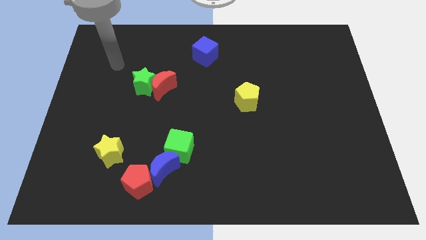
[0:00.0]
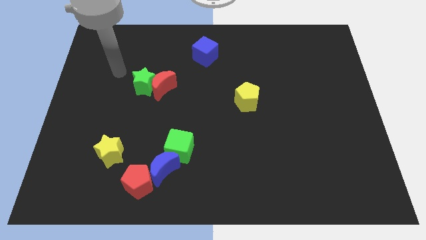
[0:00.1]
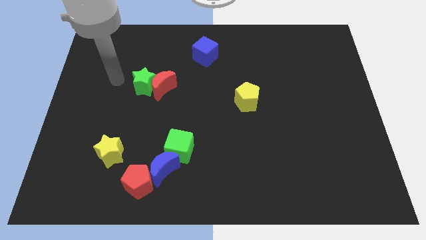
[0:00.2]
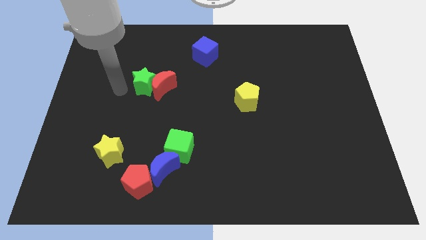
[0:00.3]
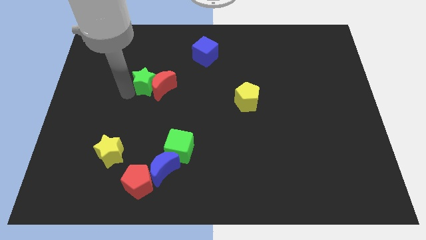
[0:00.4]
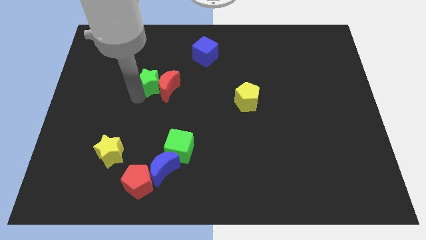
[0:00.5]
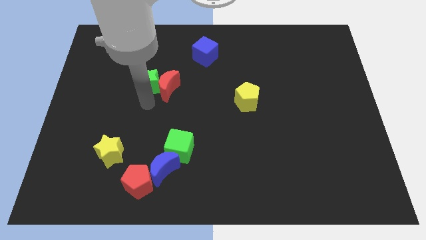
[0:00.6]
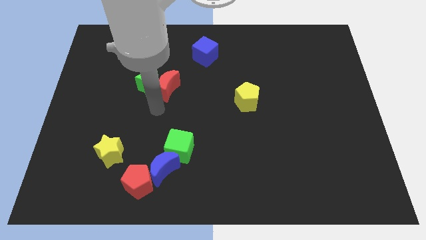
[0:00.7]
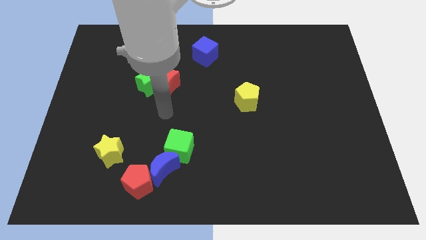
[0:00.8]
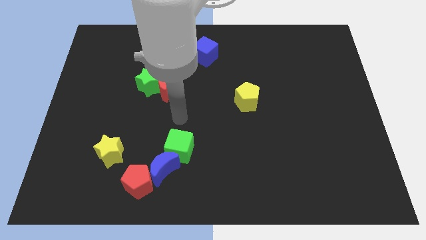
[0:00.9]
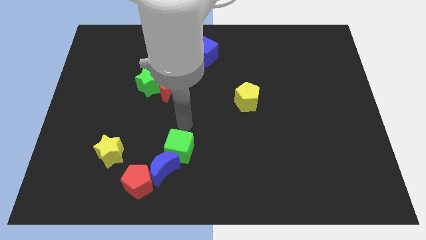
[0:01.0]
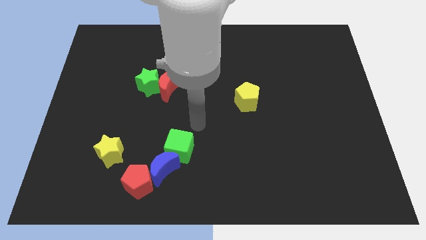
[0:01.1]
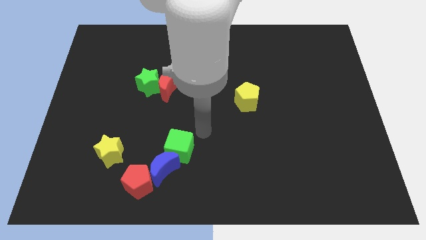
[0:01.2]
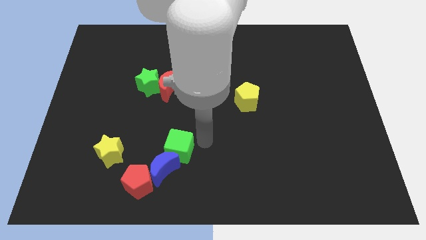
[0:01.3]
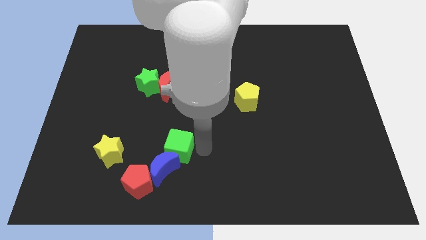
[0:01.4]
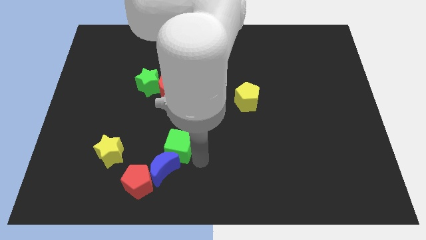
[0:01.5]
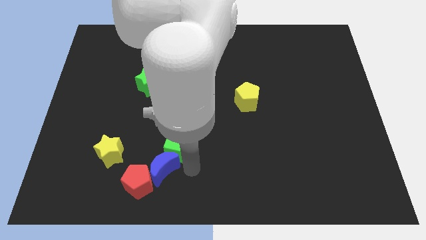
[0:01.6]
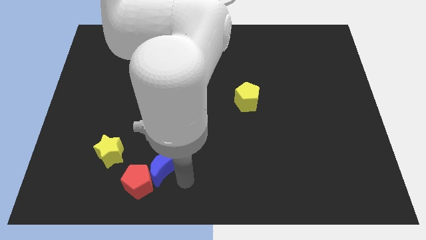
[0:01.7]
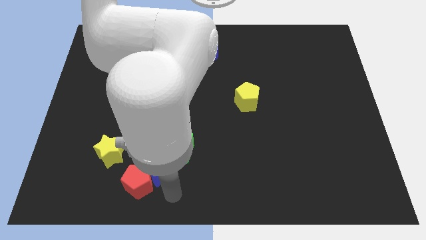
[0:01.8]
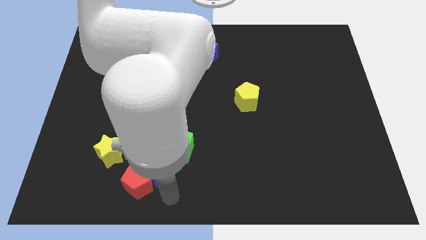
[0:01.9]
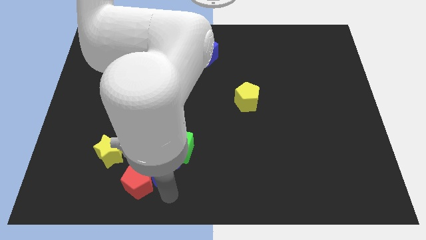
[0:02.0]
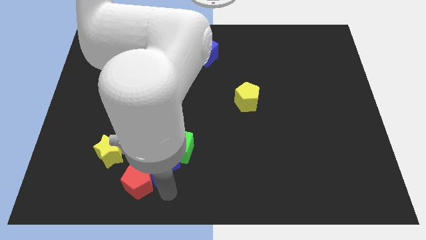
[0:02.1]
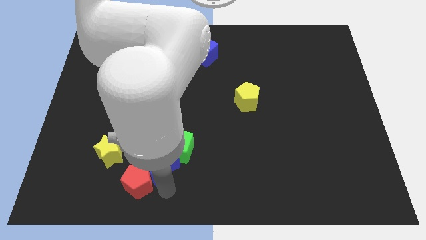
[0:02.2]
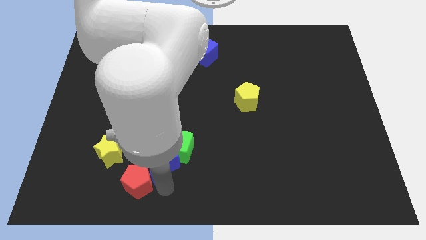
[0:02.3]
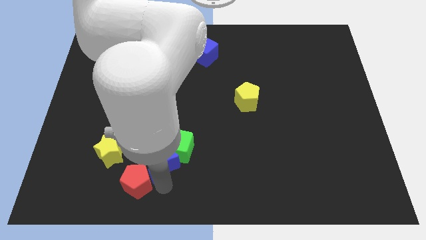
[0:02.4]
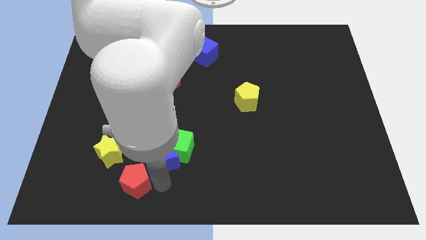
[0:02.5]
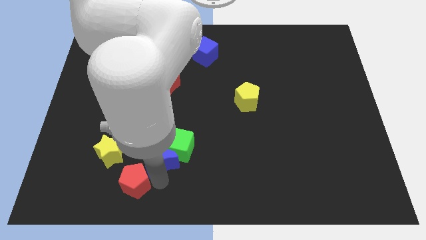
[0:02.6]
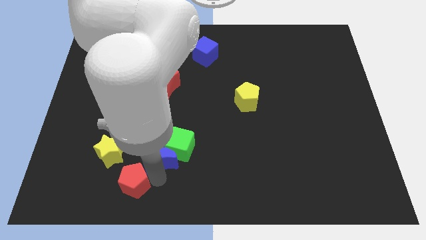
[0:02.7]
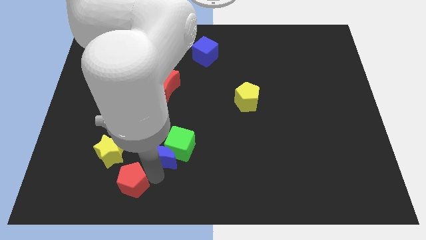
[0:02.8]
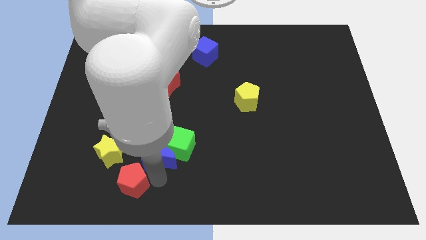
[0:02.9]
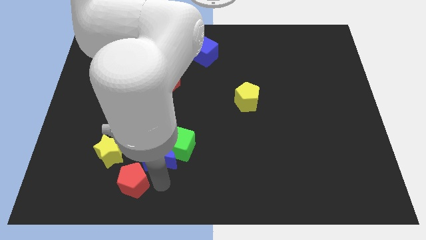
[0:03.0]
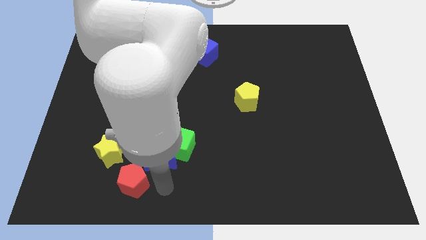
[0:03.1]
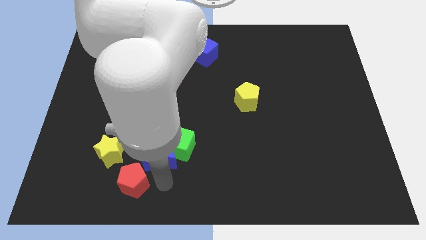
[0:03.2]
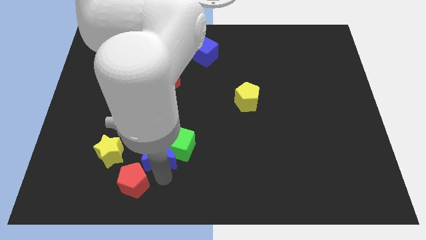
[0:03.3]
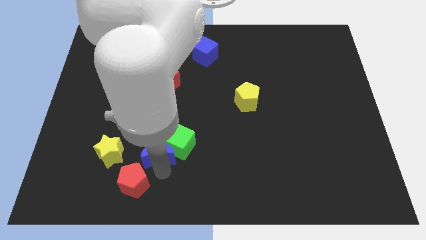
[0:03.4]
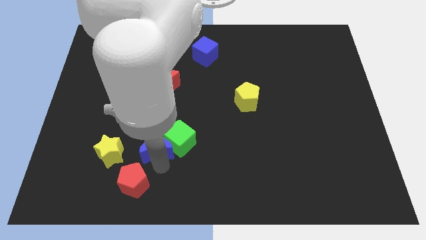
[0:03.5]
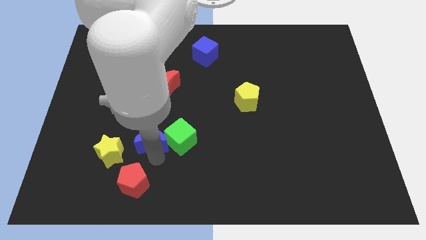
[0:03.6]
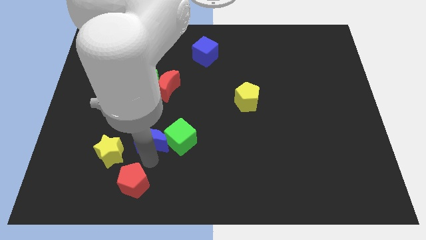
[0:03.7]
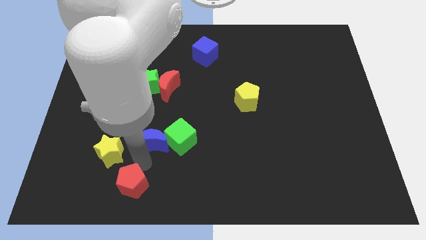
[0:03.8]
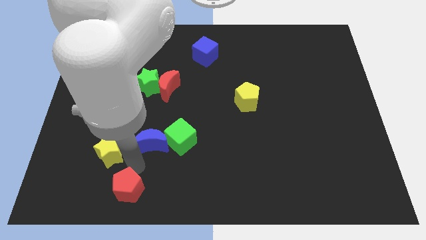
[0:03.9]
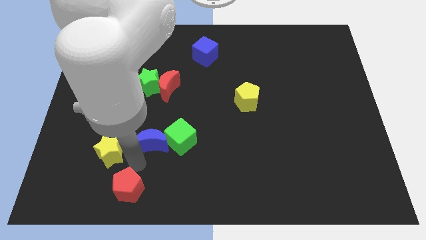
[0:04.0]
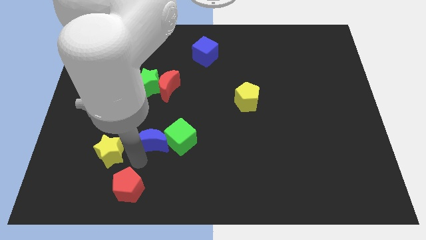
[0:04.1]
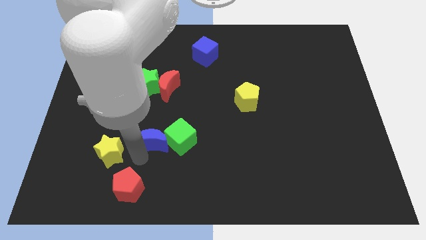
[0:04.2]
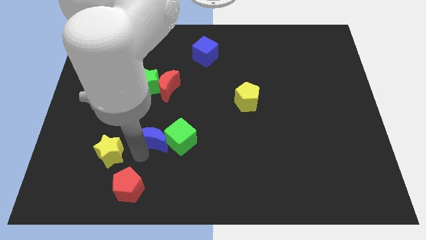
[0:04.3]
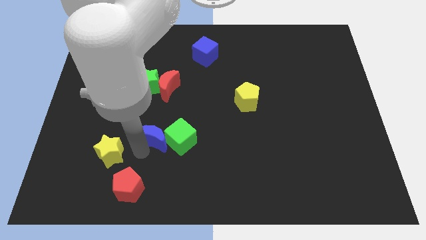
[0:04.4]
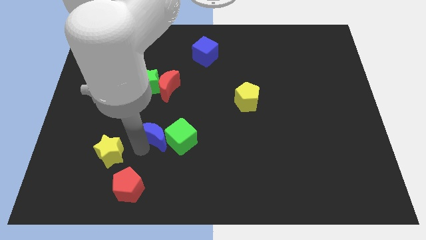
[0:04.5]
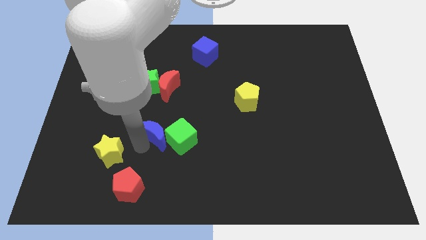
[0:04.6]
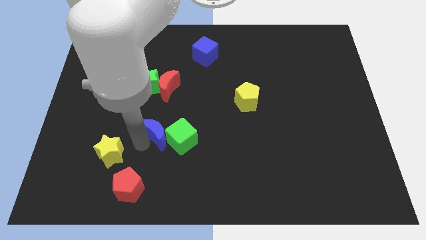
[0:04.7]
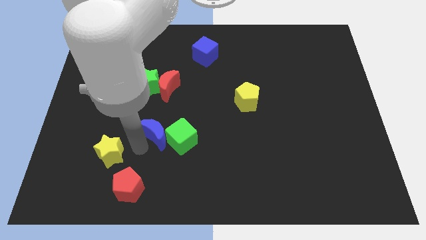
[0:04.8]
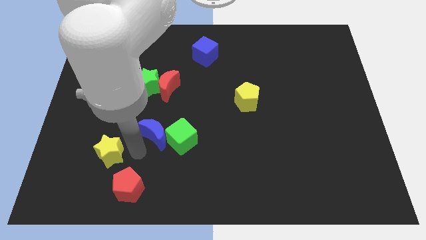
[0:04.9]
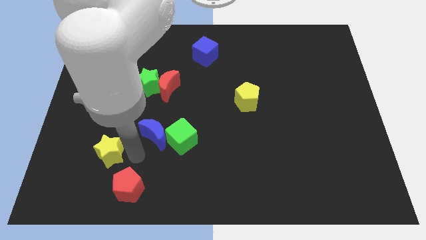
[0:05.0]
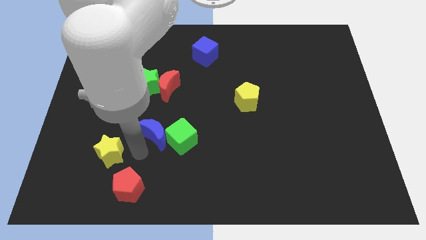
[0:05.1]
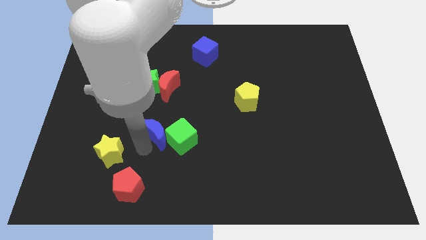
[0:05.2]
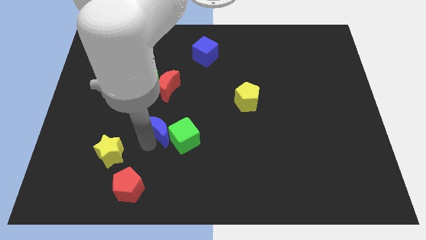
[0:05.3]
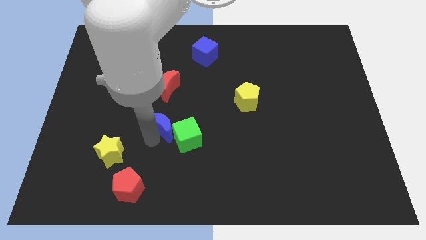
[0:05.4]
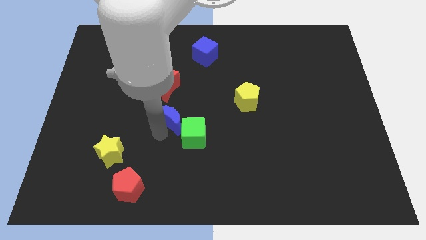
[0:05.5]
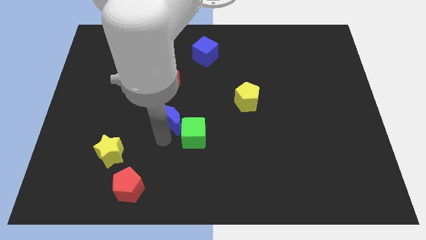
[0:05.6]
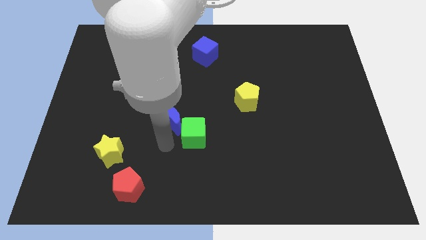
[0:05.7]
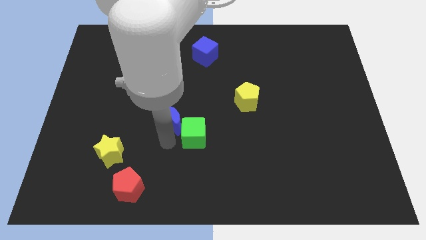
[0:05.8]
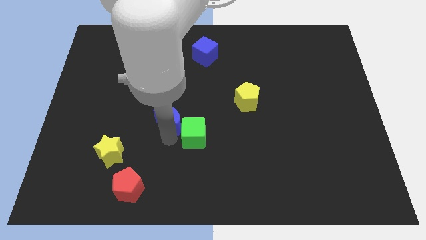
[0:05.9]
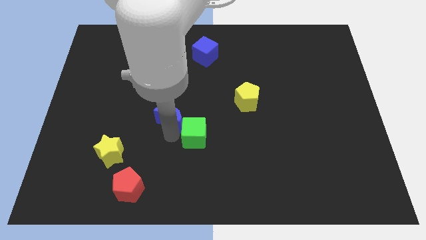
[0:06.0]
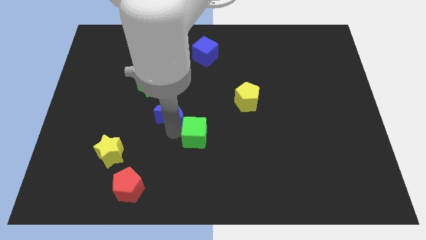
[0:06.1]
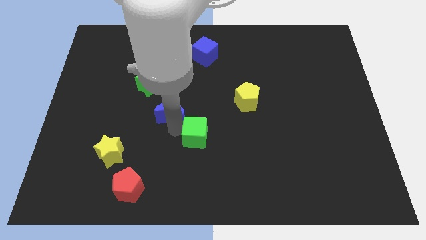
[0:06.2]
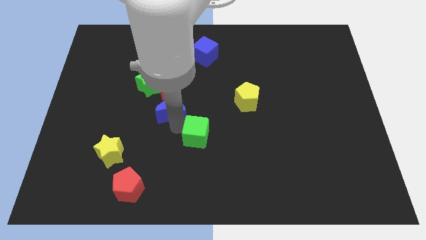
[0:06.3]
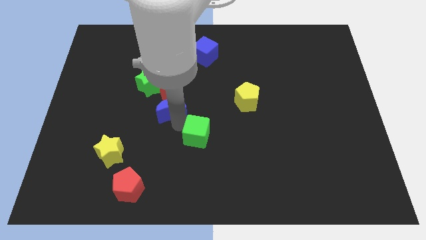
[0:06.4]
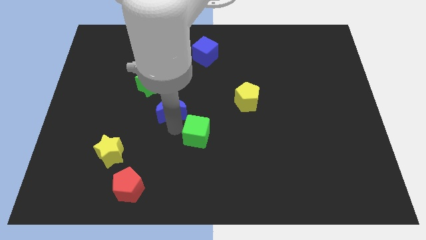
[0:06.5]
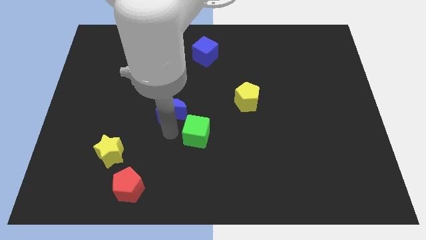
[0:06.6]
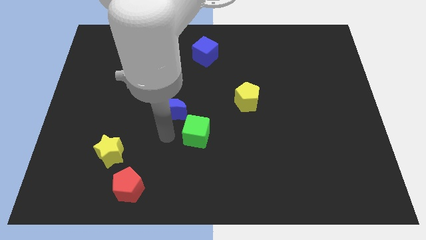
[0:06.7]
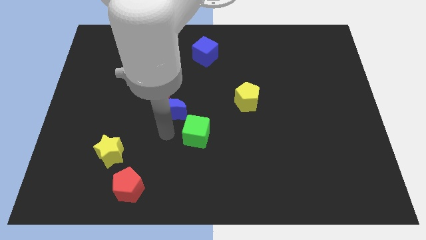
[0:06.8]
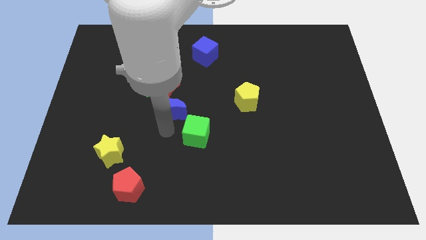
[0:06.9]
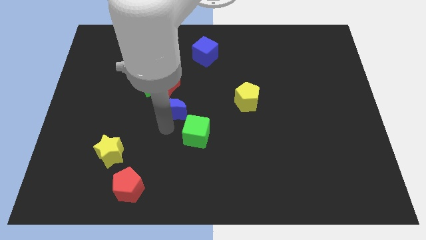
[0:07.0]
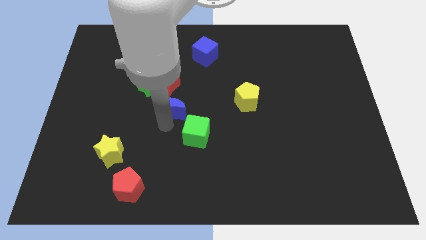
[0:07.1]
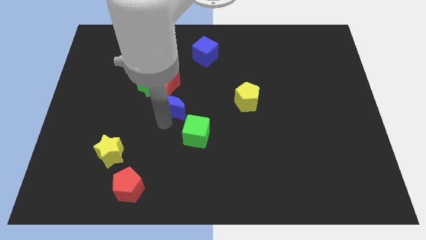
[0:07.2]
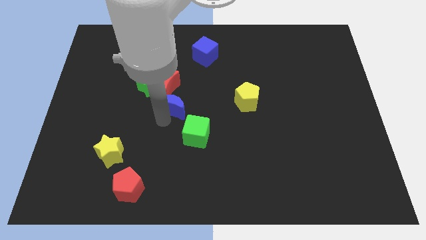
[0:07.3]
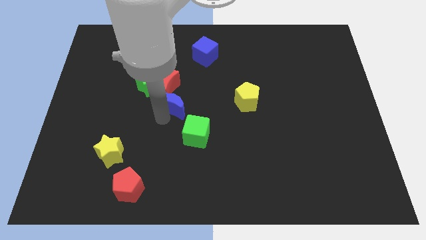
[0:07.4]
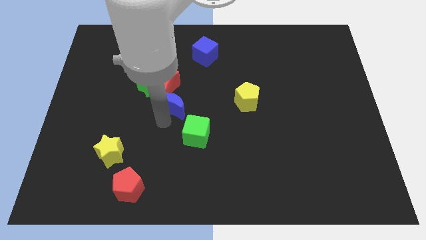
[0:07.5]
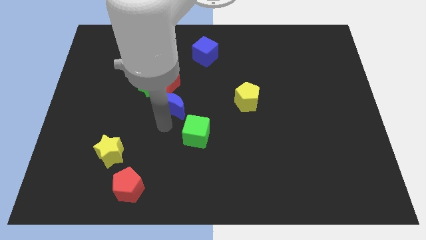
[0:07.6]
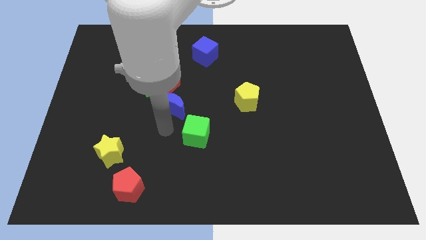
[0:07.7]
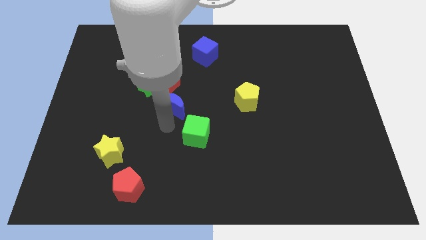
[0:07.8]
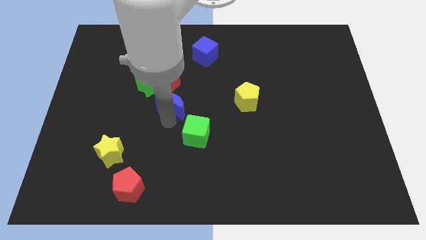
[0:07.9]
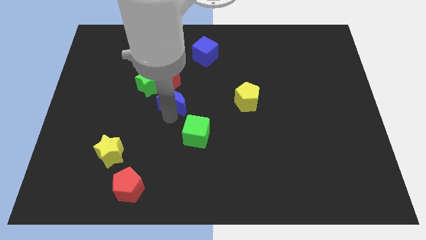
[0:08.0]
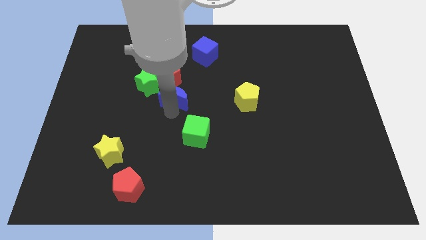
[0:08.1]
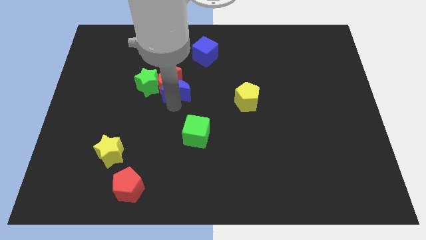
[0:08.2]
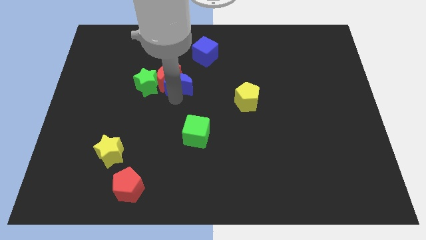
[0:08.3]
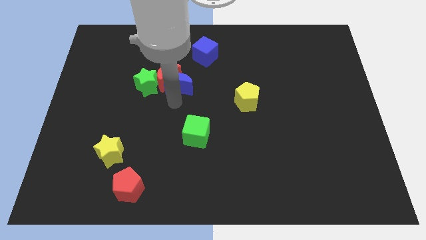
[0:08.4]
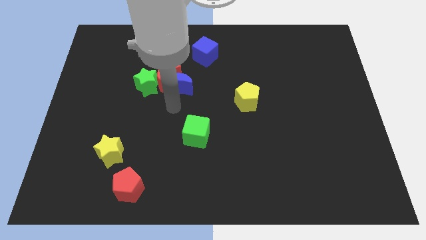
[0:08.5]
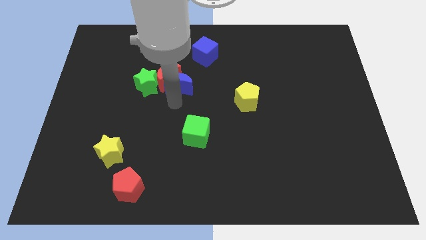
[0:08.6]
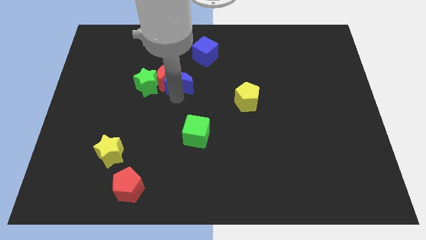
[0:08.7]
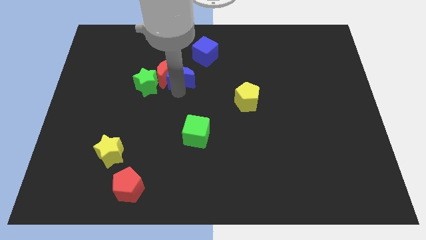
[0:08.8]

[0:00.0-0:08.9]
move the blue moon diagonally down and to the left of the blue cube
